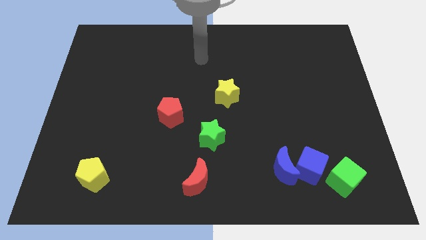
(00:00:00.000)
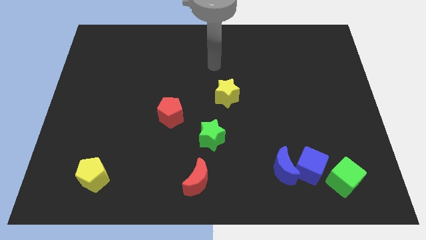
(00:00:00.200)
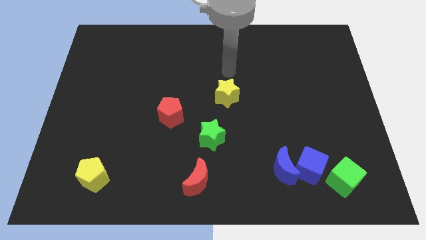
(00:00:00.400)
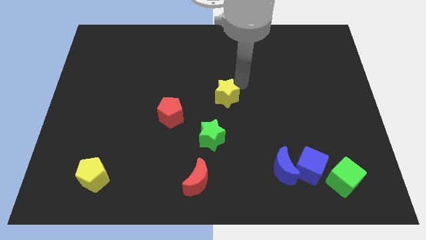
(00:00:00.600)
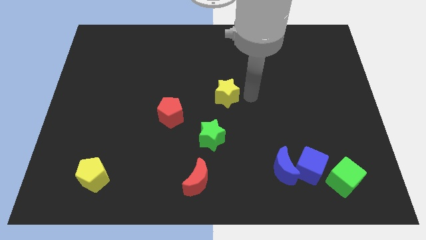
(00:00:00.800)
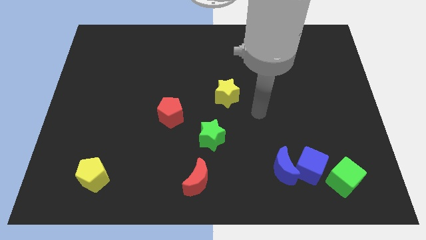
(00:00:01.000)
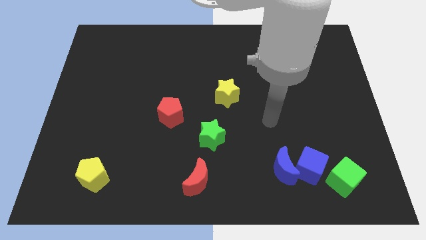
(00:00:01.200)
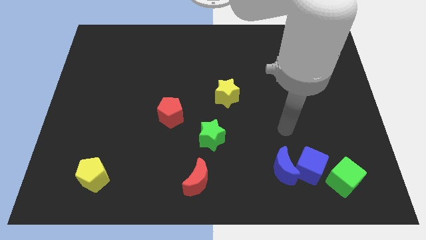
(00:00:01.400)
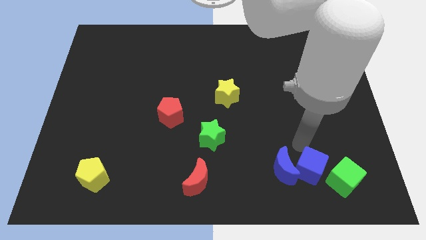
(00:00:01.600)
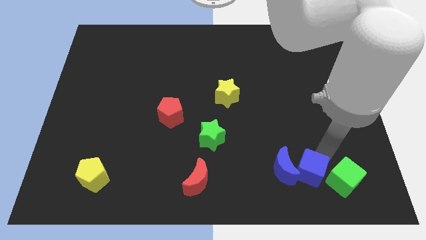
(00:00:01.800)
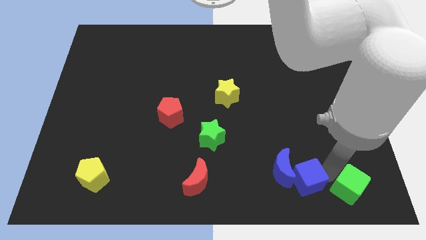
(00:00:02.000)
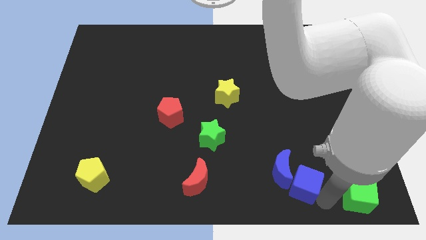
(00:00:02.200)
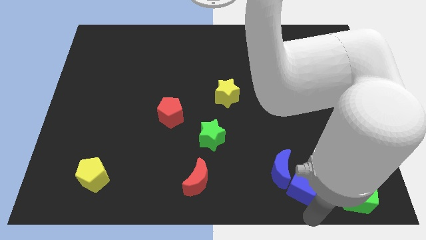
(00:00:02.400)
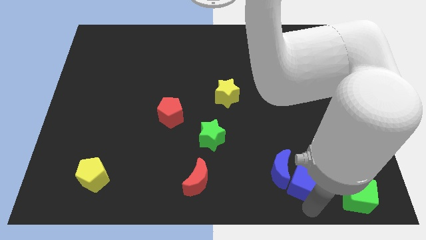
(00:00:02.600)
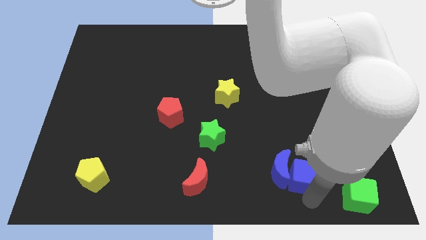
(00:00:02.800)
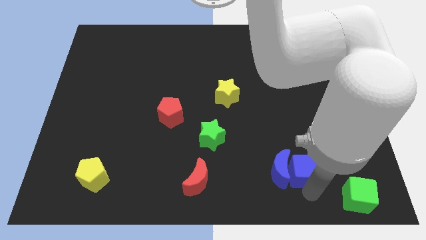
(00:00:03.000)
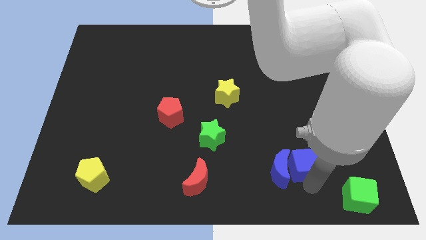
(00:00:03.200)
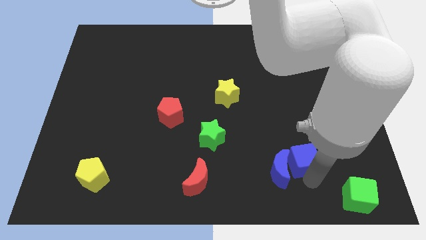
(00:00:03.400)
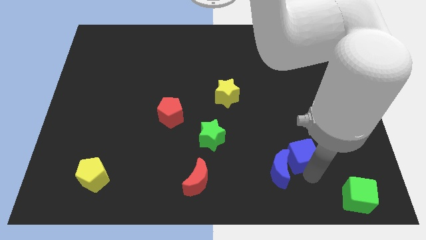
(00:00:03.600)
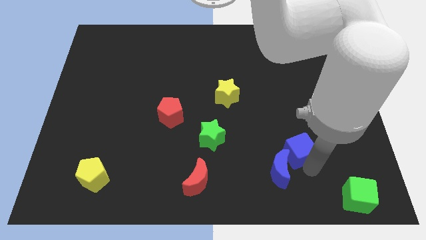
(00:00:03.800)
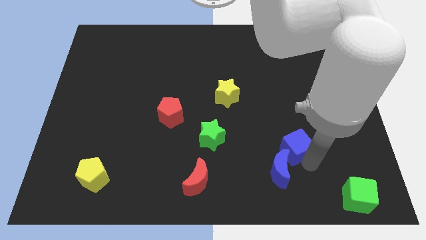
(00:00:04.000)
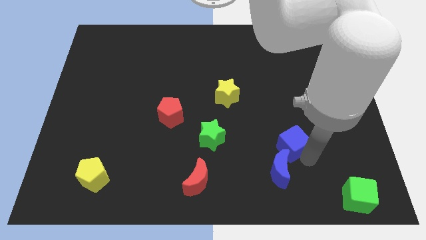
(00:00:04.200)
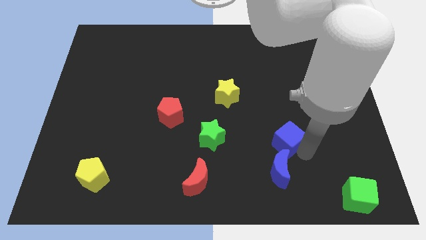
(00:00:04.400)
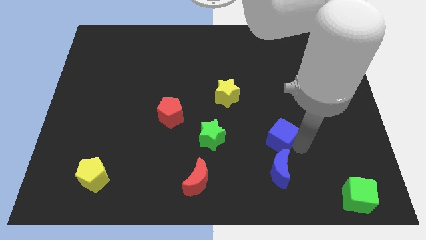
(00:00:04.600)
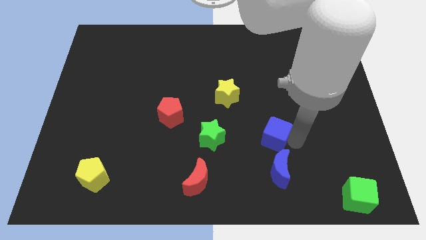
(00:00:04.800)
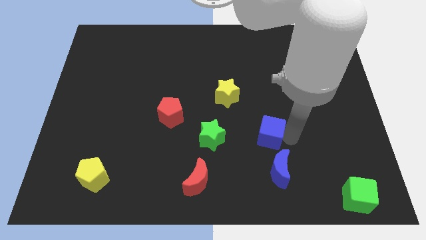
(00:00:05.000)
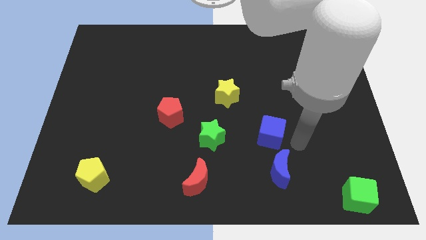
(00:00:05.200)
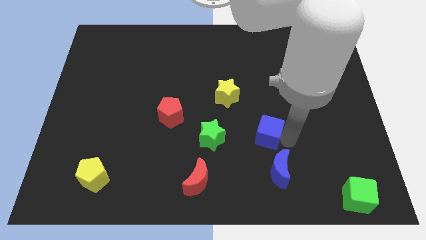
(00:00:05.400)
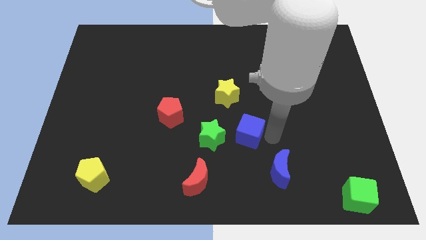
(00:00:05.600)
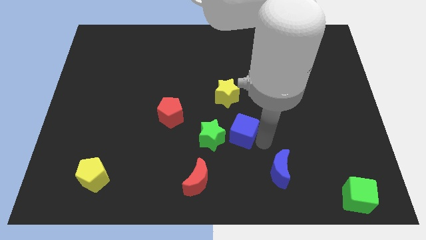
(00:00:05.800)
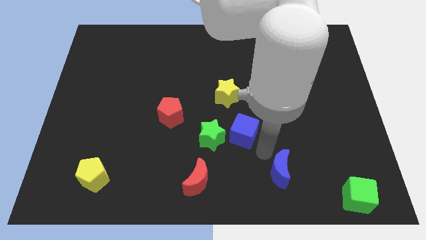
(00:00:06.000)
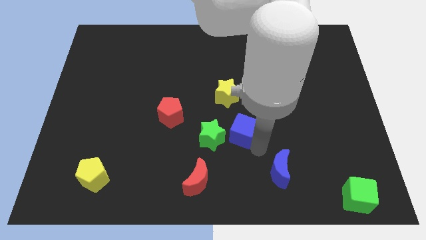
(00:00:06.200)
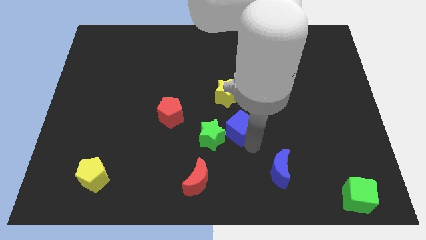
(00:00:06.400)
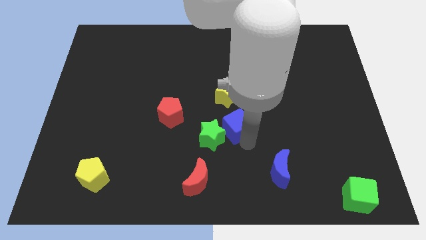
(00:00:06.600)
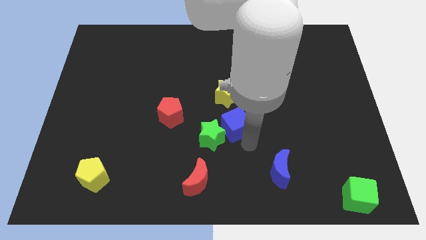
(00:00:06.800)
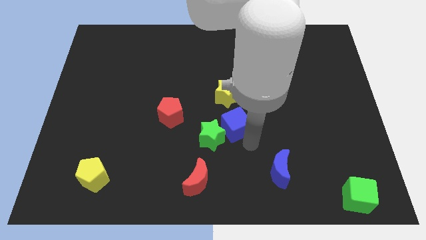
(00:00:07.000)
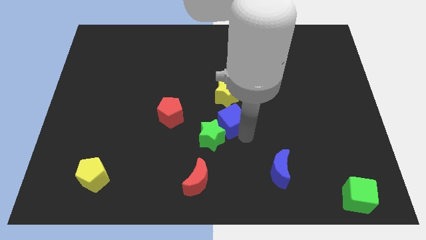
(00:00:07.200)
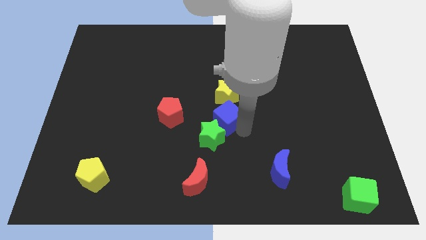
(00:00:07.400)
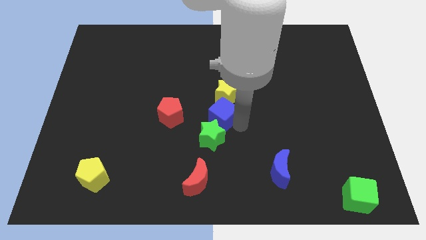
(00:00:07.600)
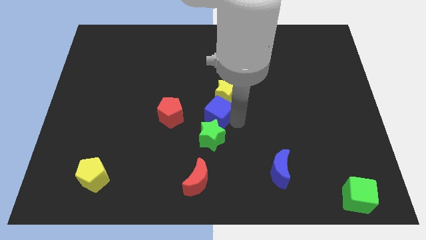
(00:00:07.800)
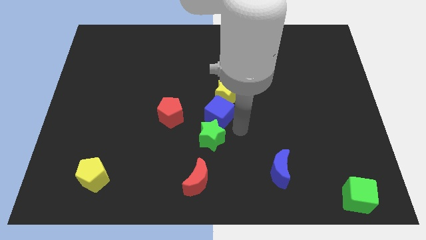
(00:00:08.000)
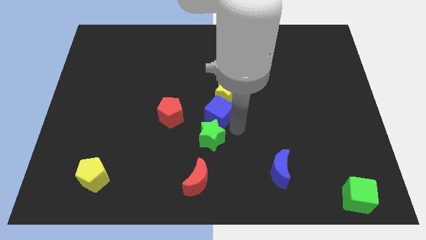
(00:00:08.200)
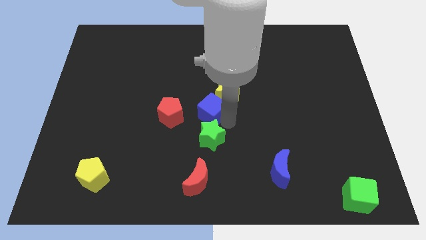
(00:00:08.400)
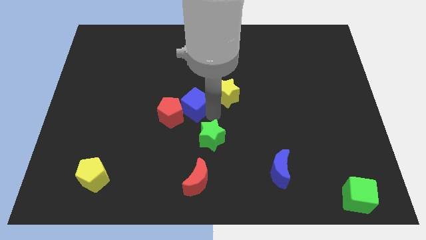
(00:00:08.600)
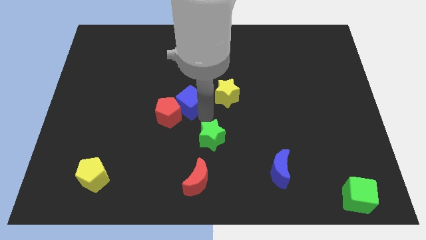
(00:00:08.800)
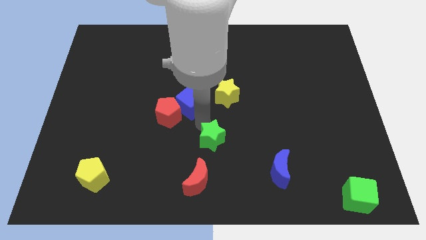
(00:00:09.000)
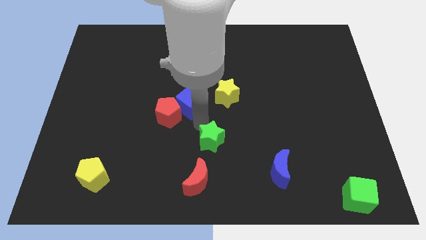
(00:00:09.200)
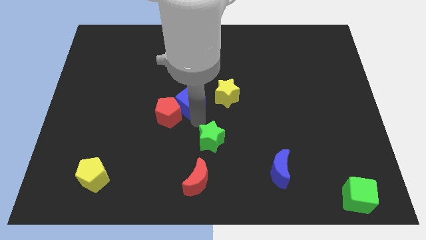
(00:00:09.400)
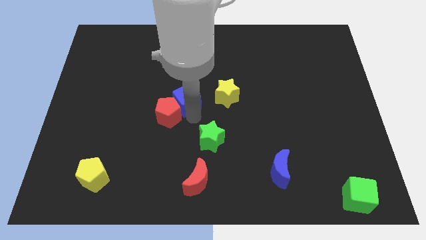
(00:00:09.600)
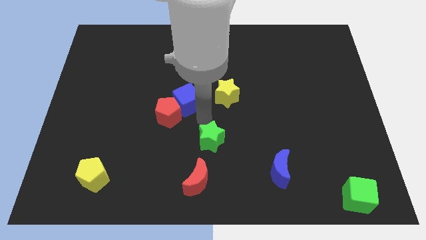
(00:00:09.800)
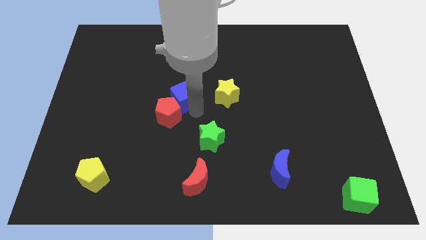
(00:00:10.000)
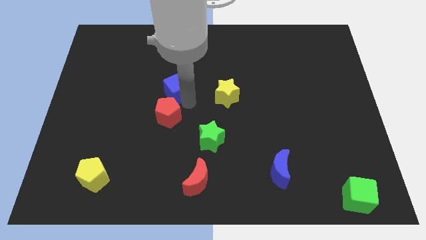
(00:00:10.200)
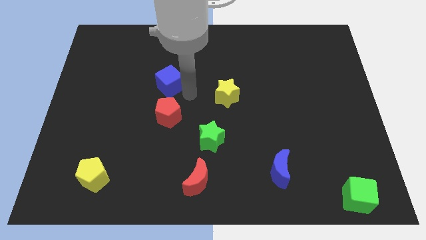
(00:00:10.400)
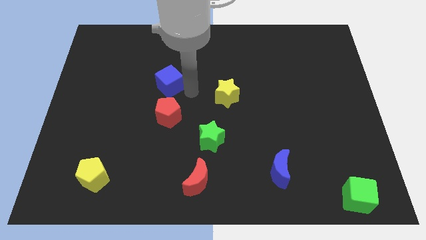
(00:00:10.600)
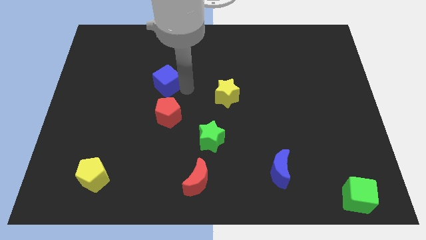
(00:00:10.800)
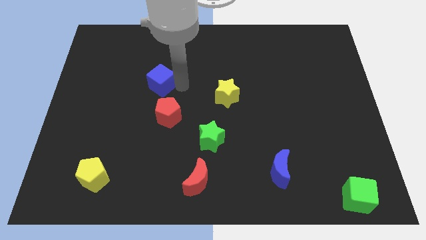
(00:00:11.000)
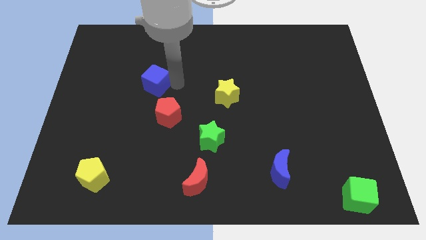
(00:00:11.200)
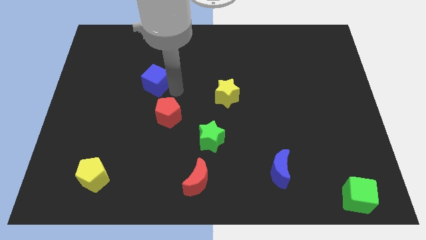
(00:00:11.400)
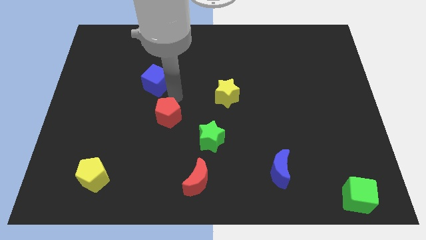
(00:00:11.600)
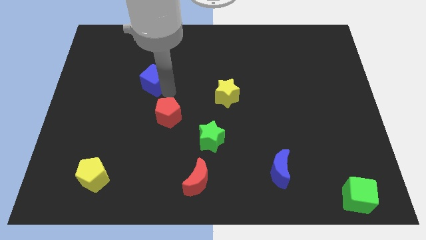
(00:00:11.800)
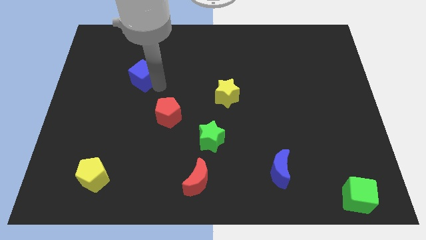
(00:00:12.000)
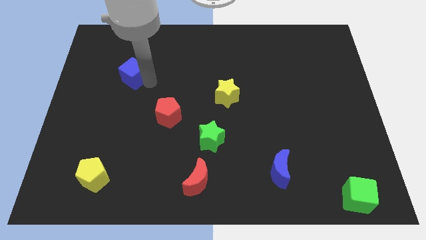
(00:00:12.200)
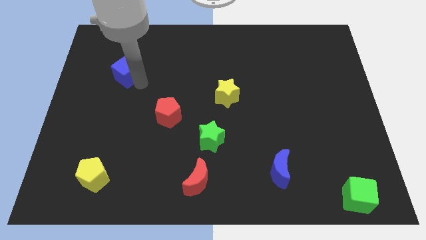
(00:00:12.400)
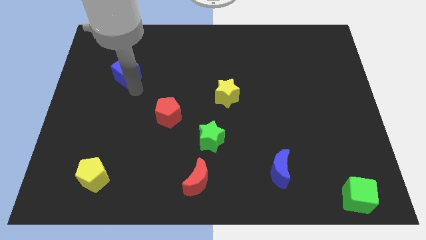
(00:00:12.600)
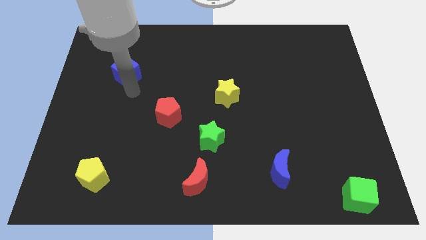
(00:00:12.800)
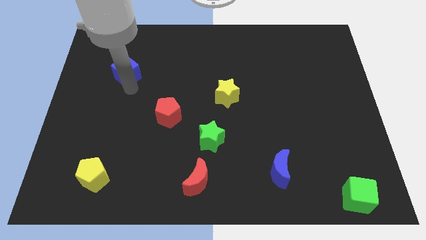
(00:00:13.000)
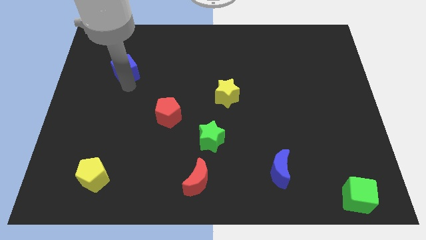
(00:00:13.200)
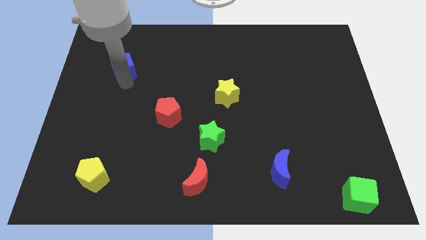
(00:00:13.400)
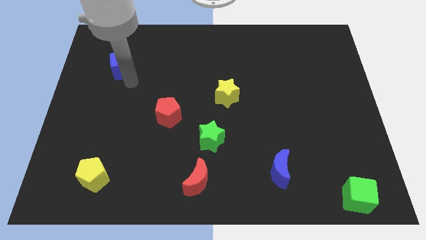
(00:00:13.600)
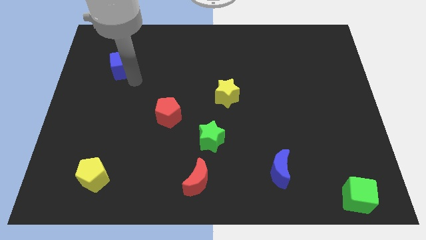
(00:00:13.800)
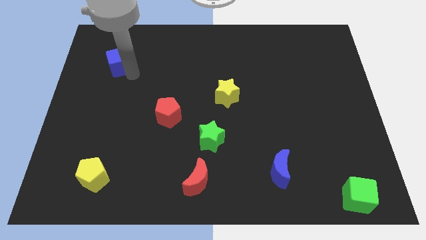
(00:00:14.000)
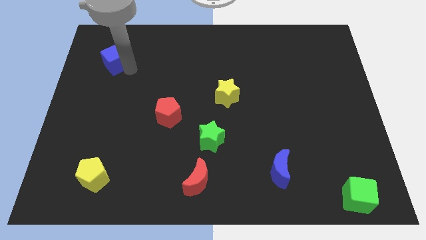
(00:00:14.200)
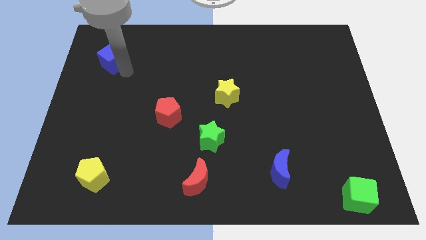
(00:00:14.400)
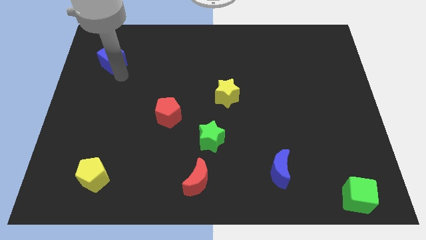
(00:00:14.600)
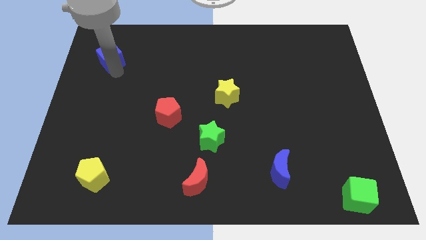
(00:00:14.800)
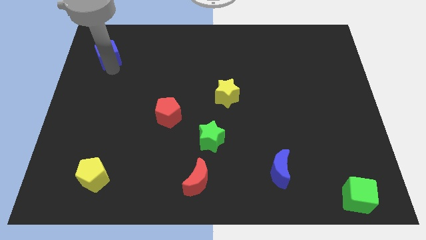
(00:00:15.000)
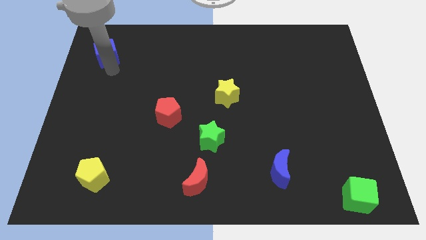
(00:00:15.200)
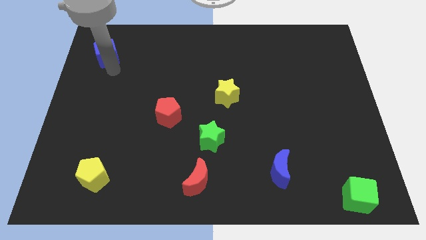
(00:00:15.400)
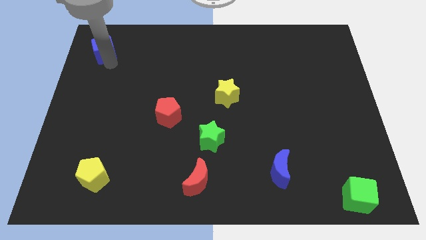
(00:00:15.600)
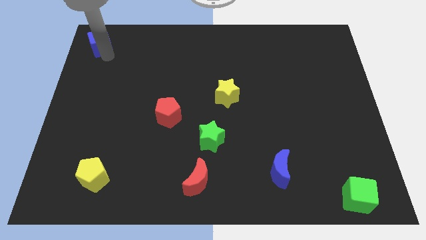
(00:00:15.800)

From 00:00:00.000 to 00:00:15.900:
slide the blue cube to the top left
